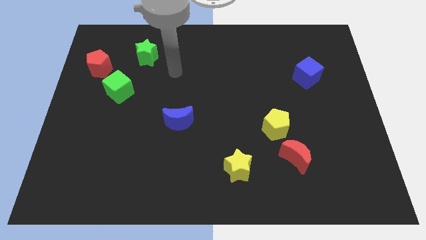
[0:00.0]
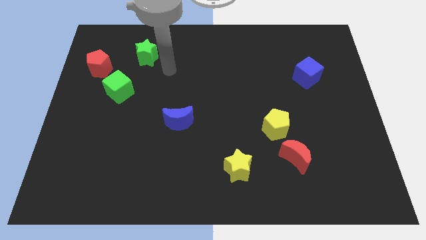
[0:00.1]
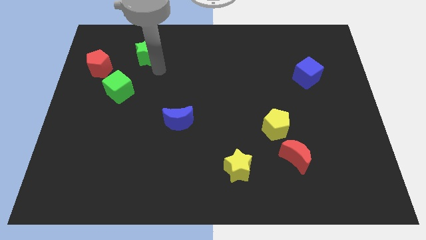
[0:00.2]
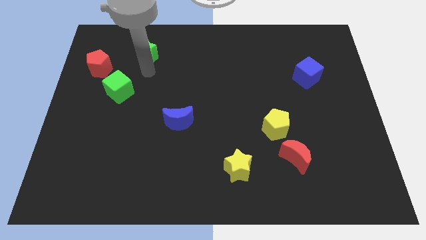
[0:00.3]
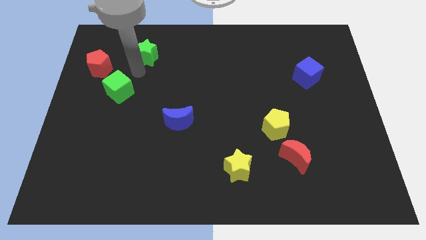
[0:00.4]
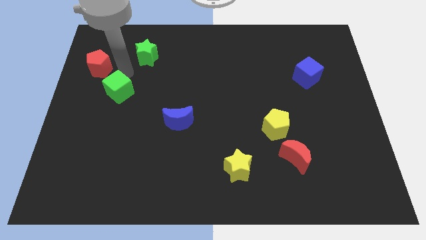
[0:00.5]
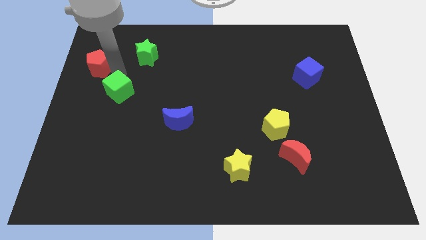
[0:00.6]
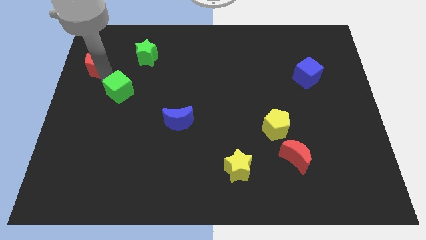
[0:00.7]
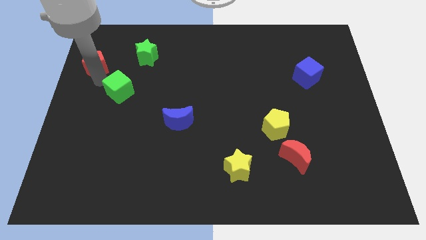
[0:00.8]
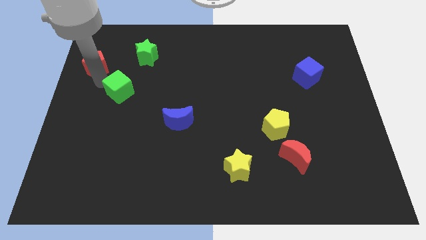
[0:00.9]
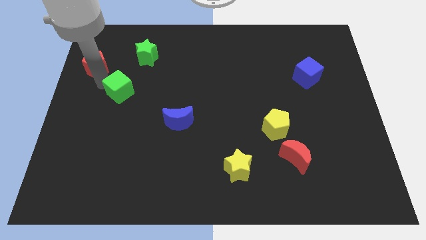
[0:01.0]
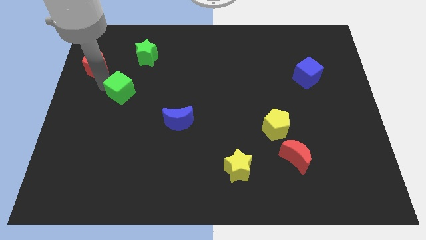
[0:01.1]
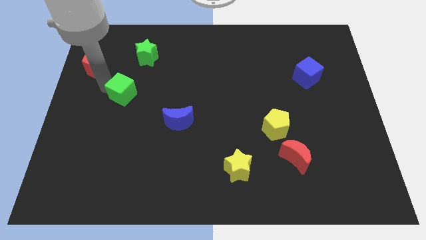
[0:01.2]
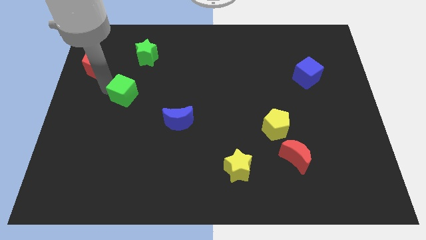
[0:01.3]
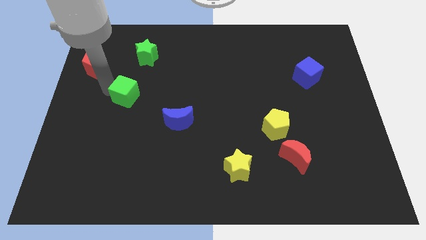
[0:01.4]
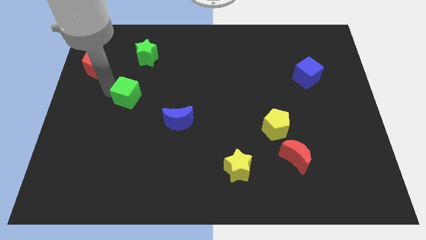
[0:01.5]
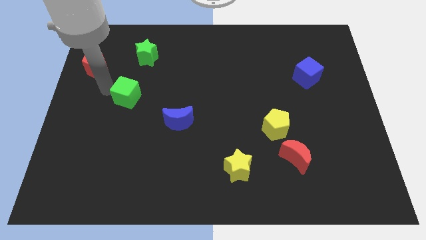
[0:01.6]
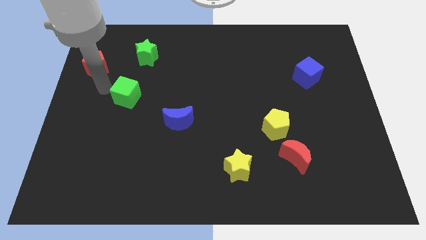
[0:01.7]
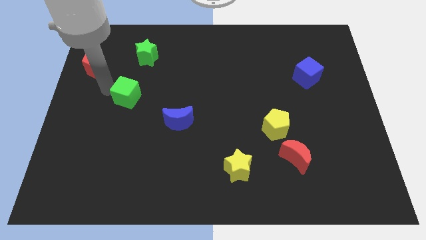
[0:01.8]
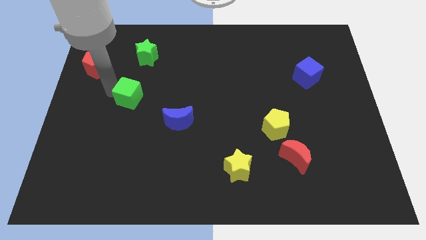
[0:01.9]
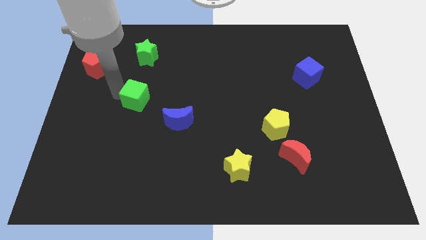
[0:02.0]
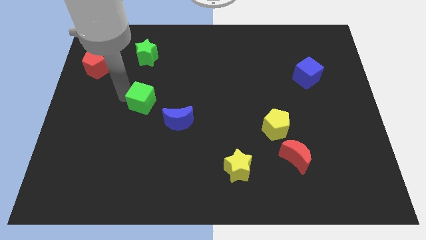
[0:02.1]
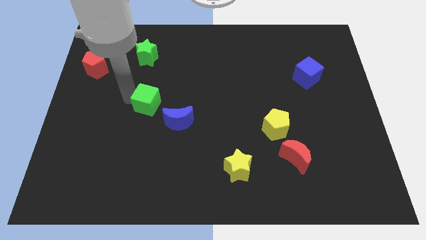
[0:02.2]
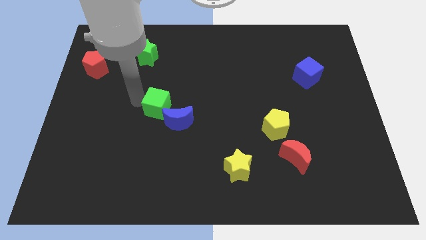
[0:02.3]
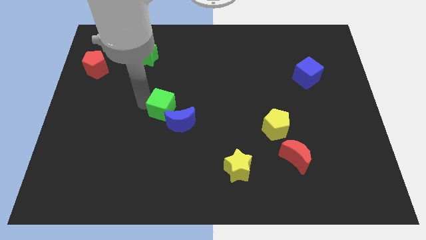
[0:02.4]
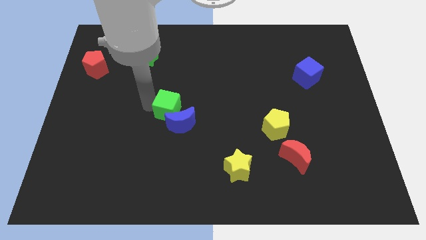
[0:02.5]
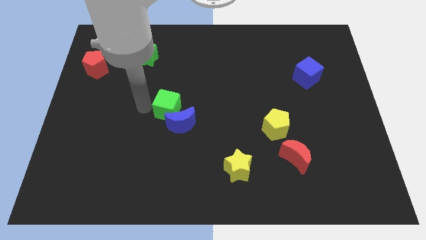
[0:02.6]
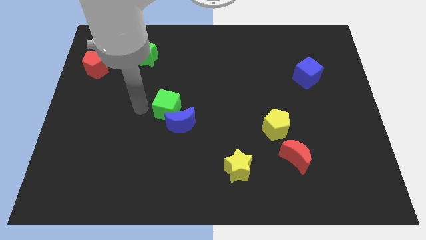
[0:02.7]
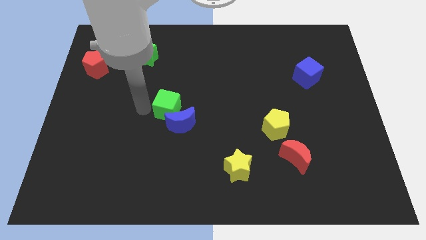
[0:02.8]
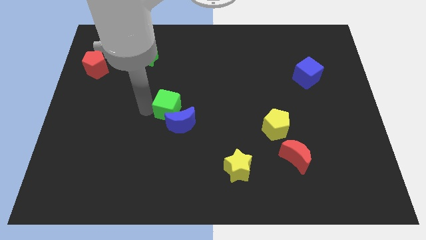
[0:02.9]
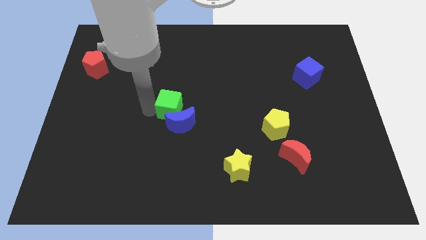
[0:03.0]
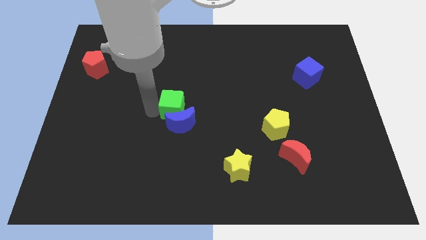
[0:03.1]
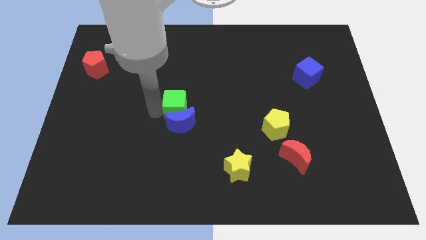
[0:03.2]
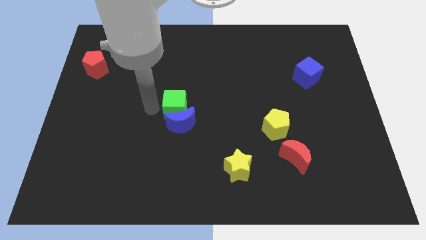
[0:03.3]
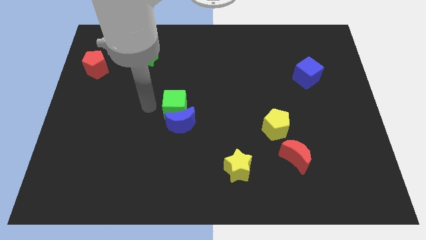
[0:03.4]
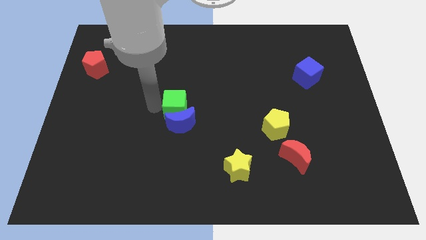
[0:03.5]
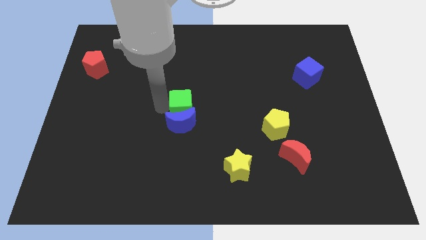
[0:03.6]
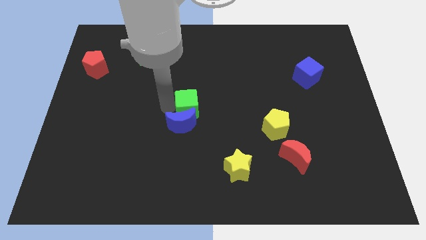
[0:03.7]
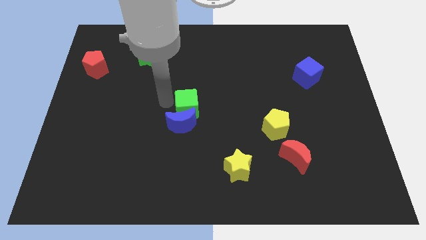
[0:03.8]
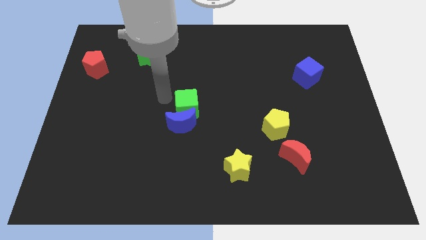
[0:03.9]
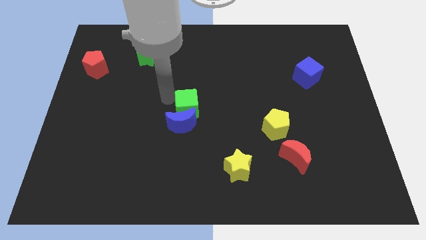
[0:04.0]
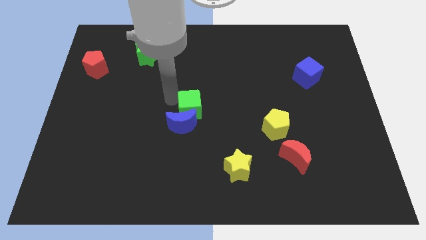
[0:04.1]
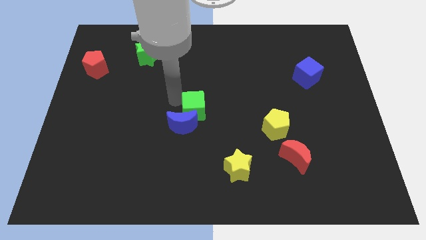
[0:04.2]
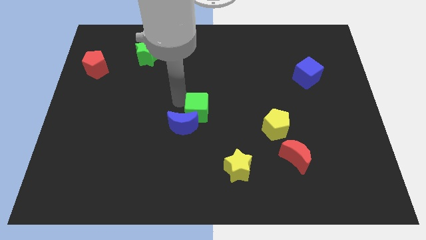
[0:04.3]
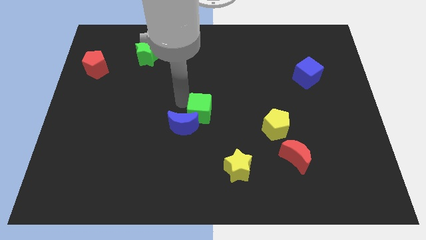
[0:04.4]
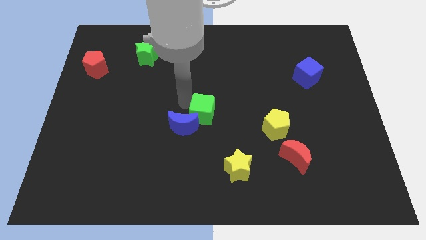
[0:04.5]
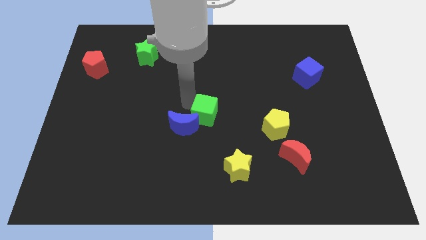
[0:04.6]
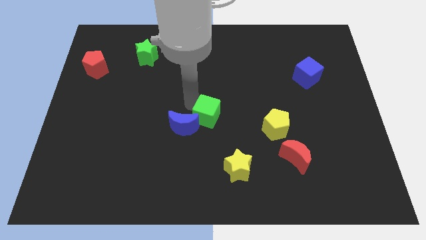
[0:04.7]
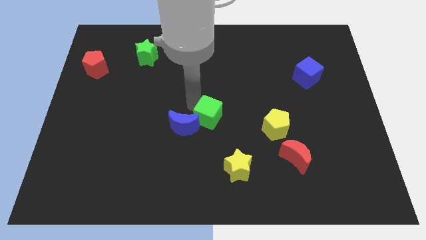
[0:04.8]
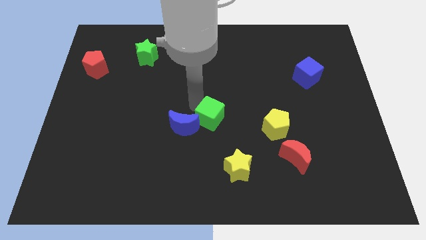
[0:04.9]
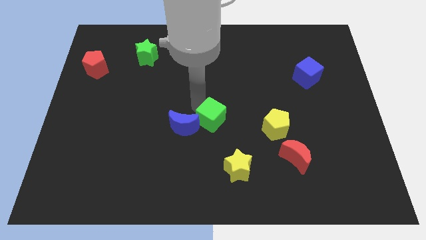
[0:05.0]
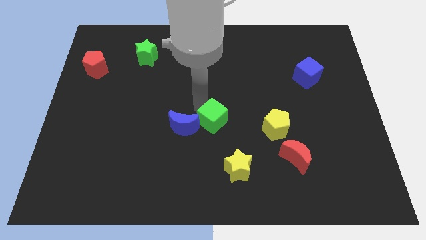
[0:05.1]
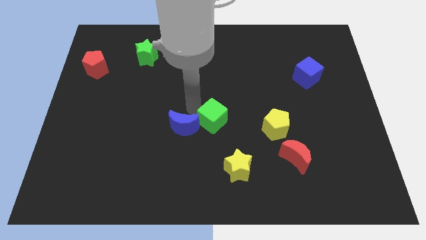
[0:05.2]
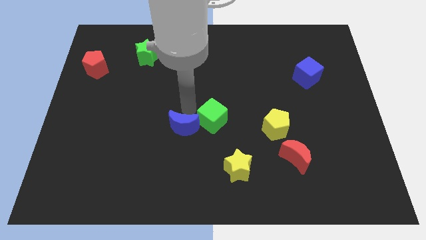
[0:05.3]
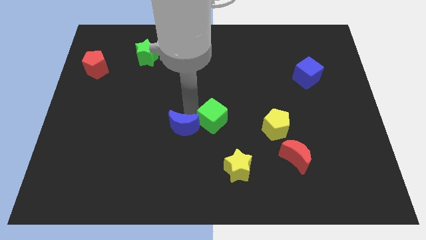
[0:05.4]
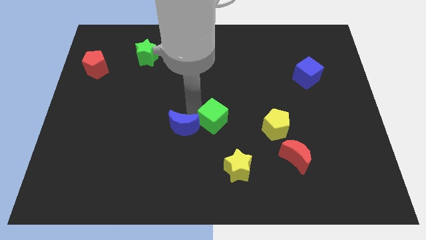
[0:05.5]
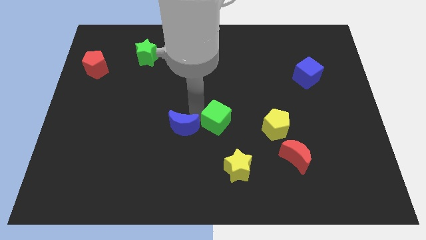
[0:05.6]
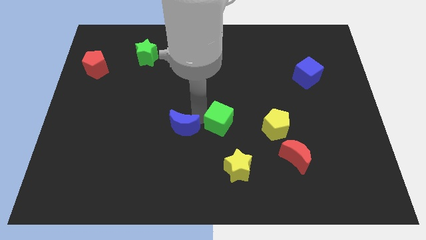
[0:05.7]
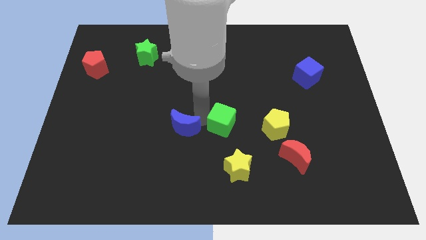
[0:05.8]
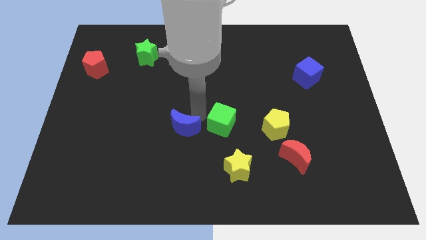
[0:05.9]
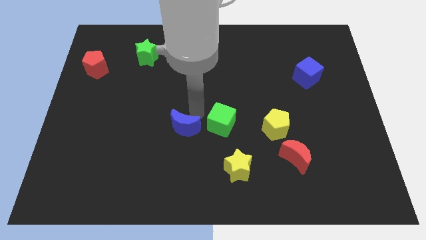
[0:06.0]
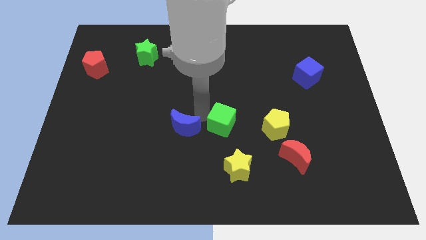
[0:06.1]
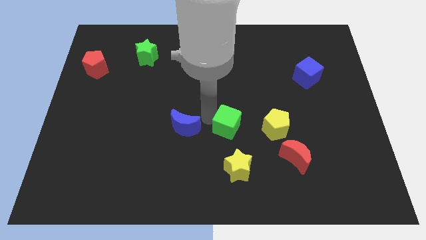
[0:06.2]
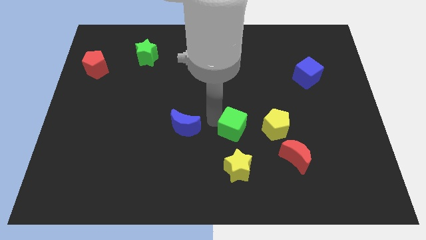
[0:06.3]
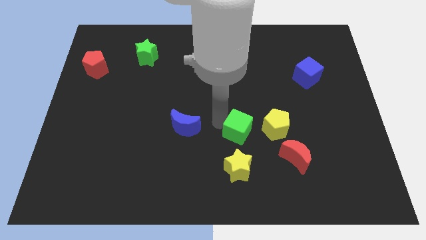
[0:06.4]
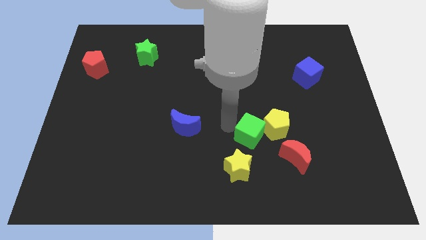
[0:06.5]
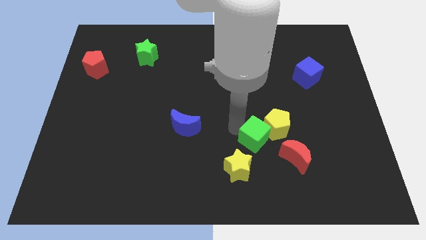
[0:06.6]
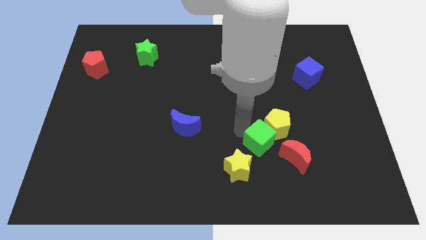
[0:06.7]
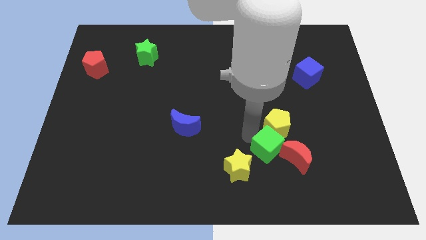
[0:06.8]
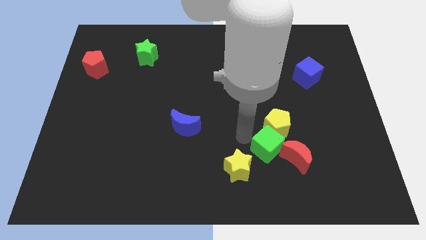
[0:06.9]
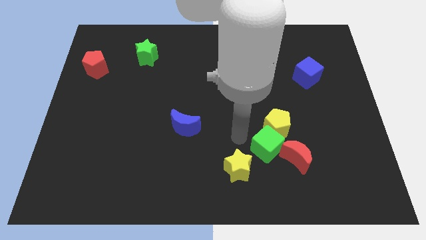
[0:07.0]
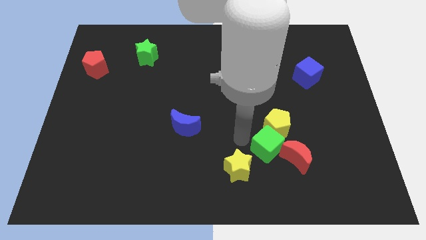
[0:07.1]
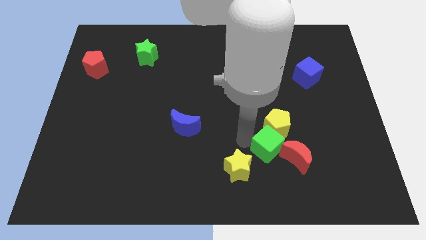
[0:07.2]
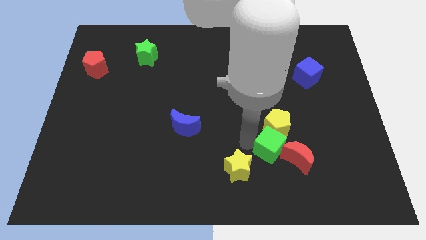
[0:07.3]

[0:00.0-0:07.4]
put the green cube close to the red moon
